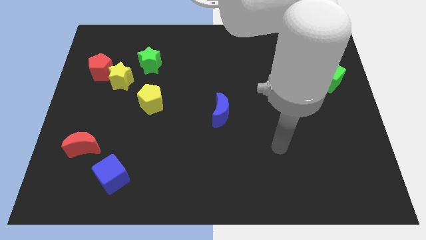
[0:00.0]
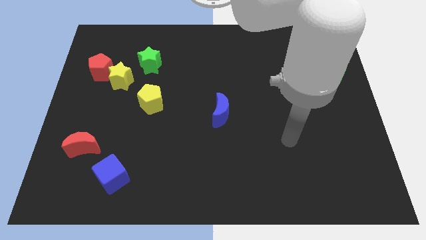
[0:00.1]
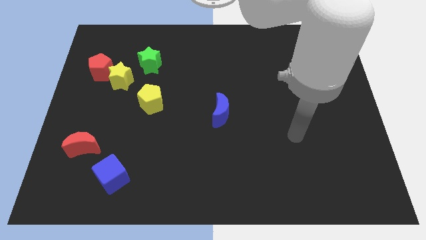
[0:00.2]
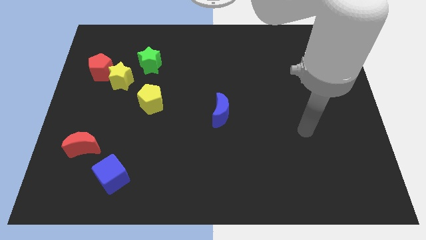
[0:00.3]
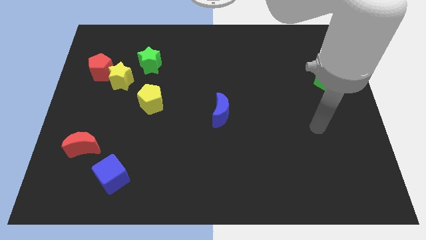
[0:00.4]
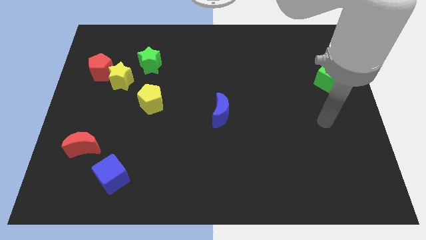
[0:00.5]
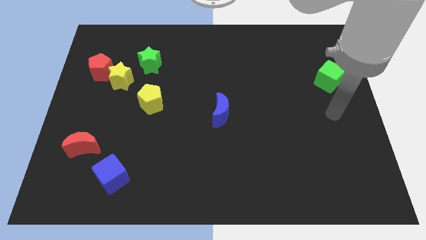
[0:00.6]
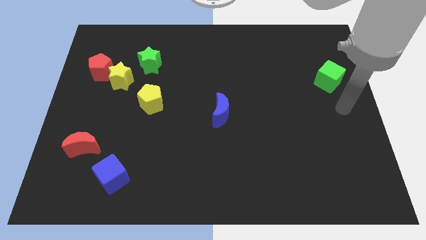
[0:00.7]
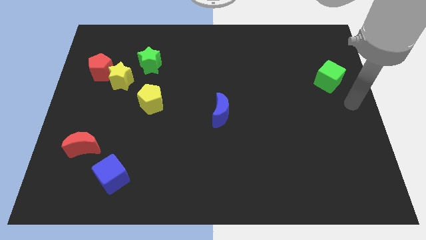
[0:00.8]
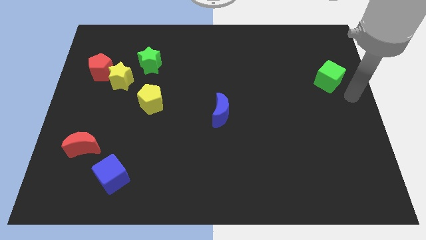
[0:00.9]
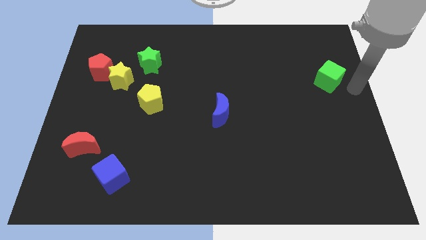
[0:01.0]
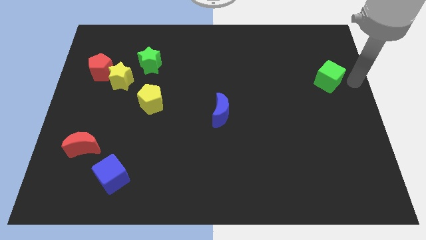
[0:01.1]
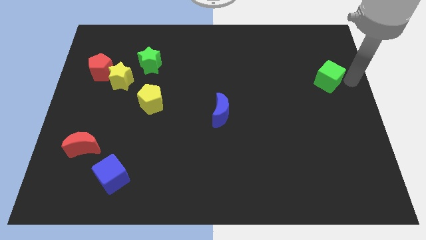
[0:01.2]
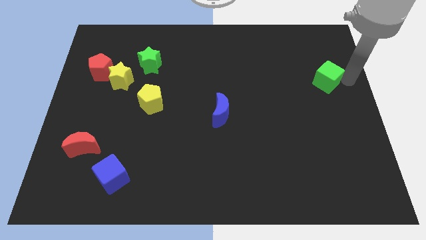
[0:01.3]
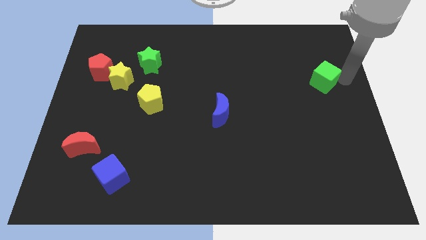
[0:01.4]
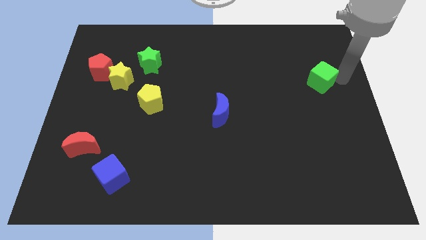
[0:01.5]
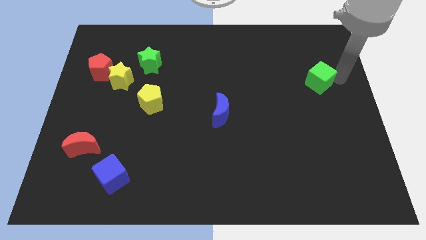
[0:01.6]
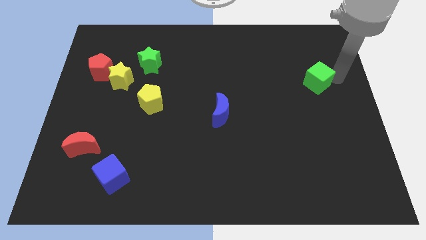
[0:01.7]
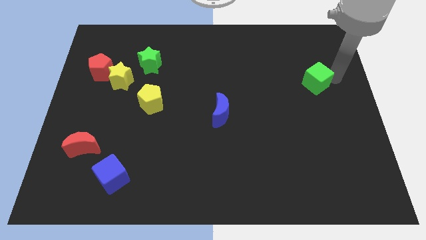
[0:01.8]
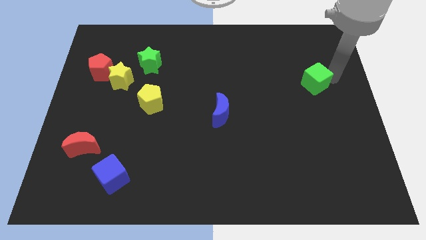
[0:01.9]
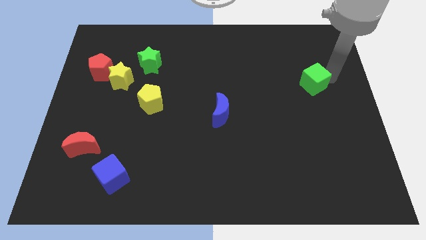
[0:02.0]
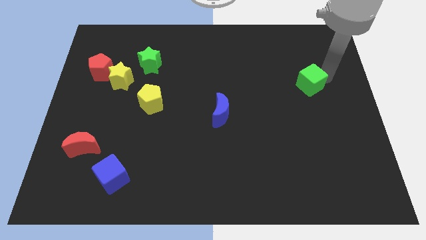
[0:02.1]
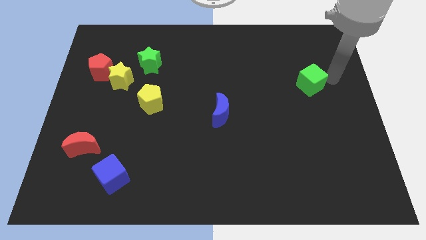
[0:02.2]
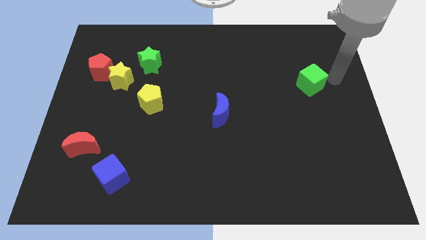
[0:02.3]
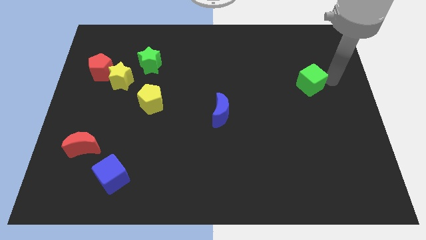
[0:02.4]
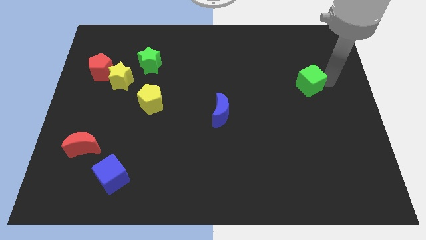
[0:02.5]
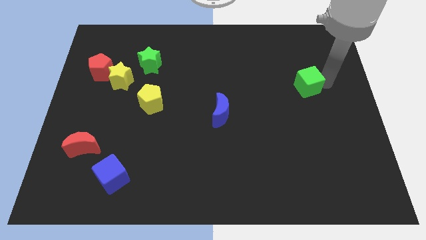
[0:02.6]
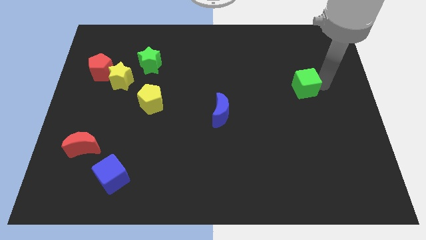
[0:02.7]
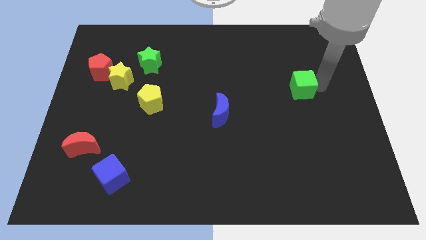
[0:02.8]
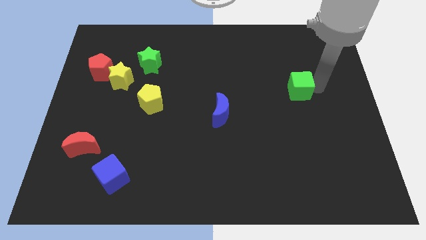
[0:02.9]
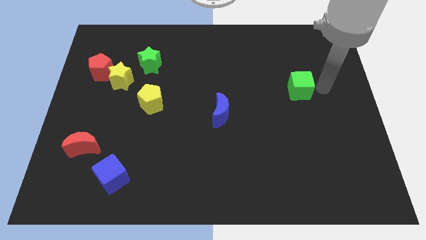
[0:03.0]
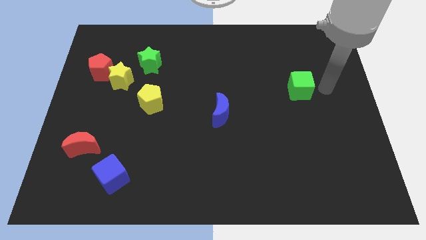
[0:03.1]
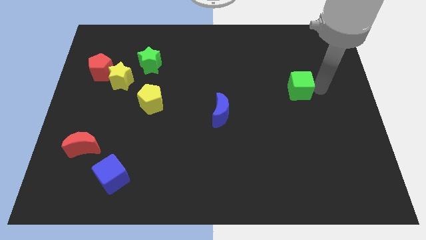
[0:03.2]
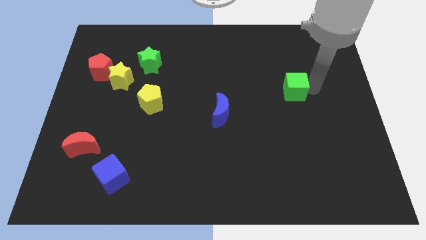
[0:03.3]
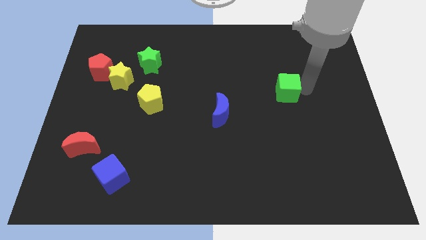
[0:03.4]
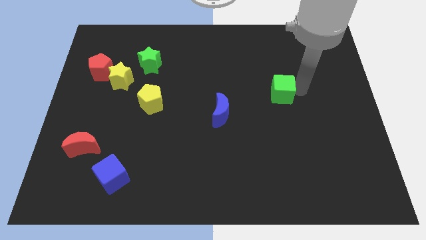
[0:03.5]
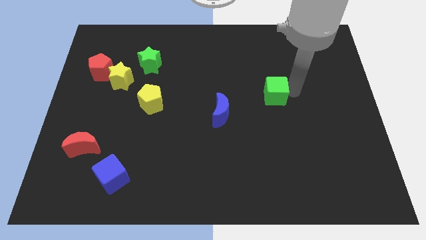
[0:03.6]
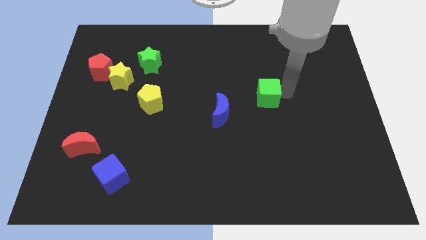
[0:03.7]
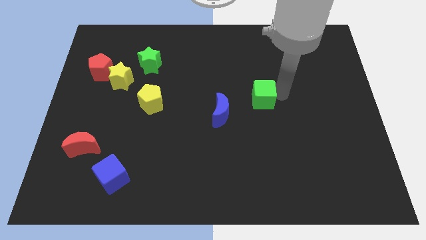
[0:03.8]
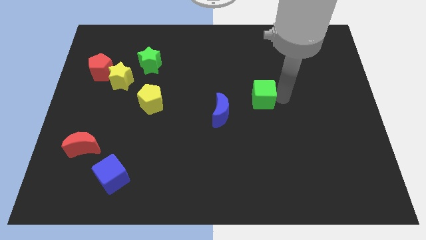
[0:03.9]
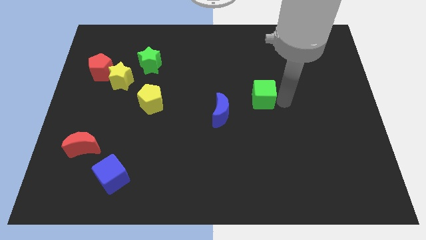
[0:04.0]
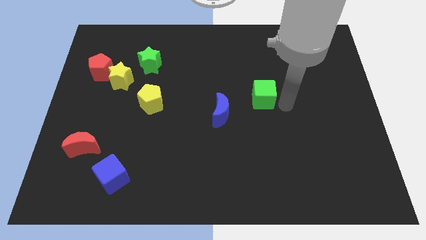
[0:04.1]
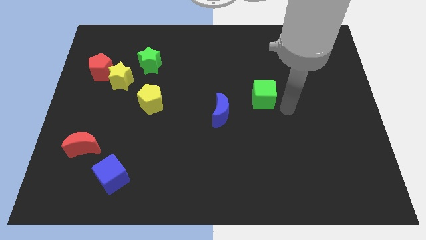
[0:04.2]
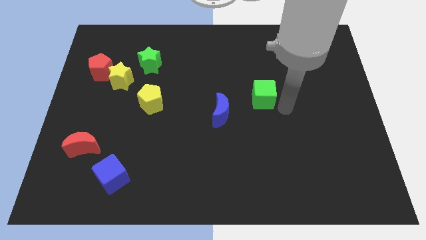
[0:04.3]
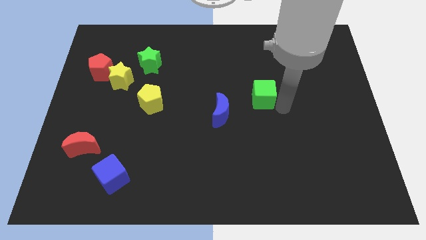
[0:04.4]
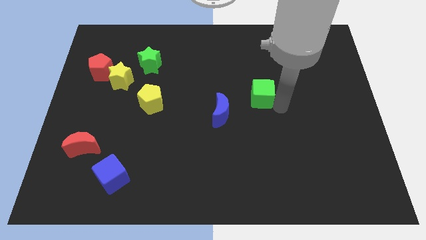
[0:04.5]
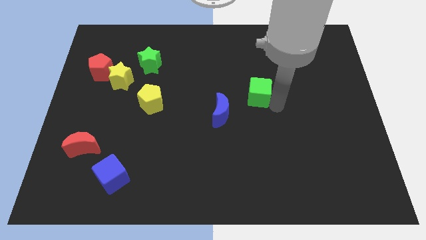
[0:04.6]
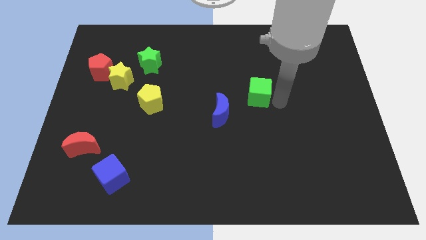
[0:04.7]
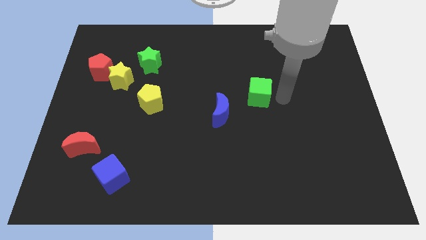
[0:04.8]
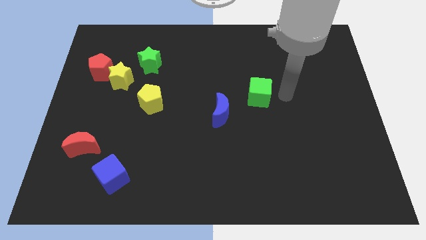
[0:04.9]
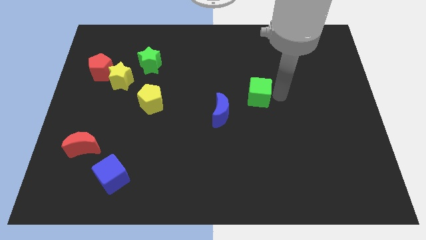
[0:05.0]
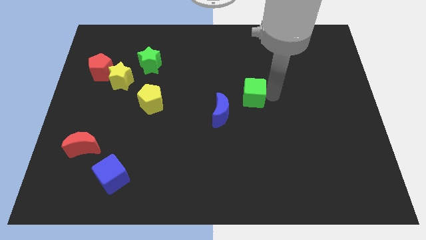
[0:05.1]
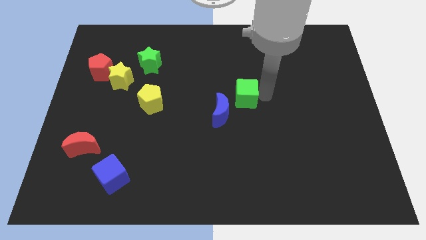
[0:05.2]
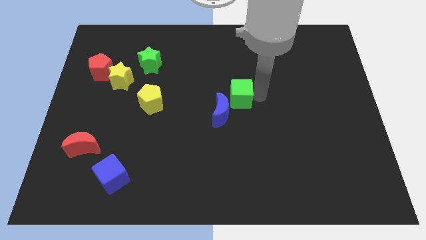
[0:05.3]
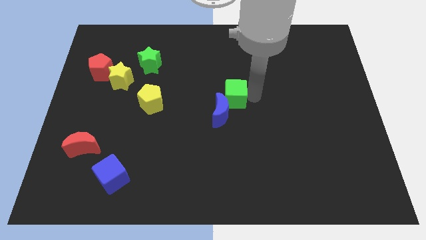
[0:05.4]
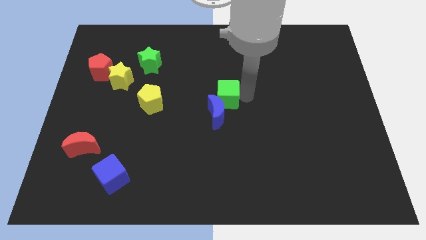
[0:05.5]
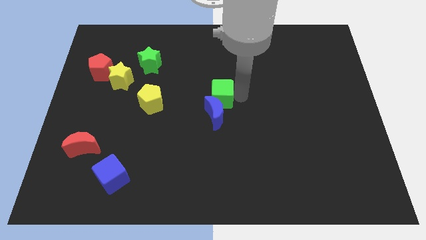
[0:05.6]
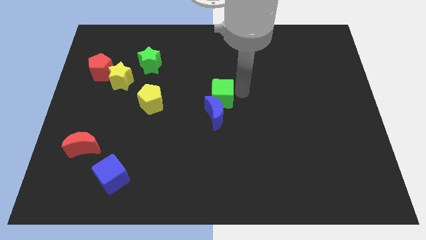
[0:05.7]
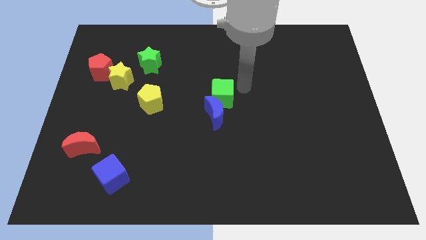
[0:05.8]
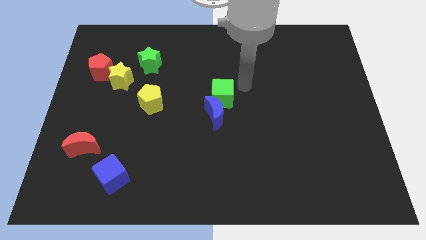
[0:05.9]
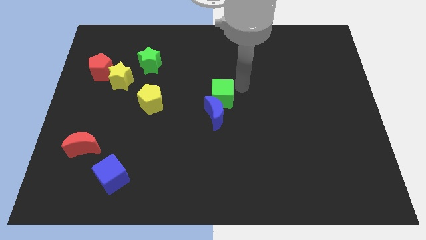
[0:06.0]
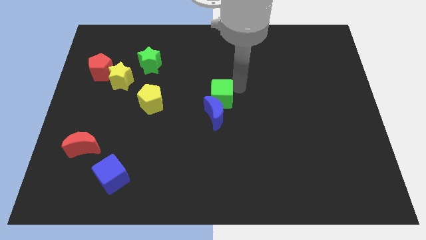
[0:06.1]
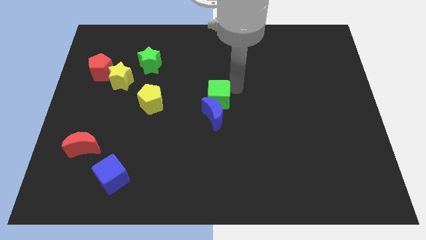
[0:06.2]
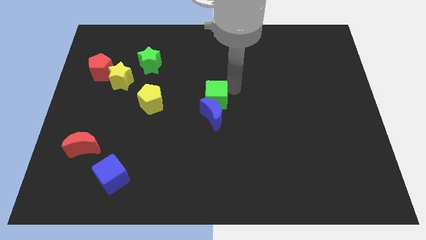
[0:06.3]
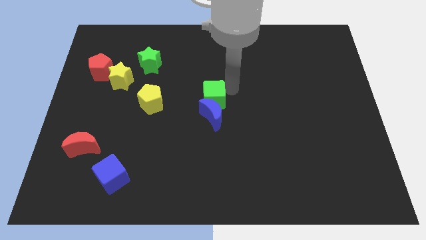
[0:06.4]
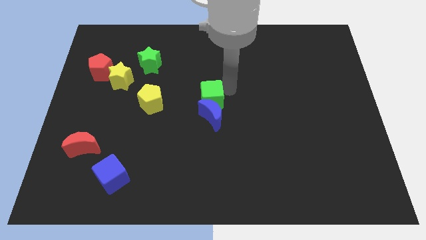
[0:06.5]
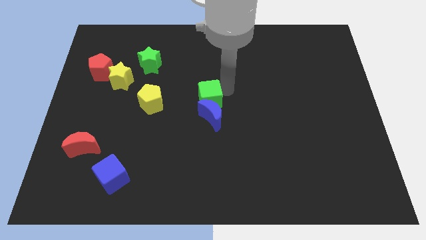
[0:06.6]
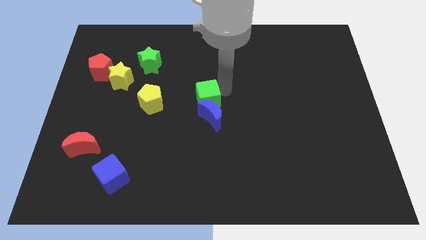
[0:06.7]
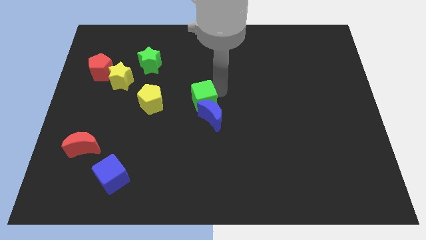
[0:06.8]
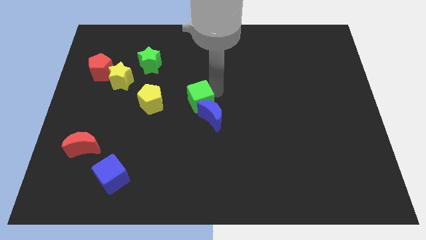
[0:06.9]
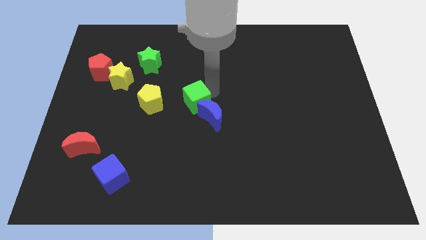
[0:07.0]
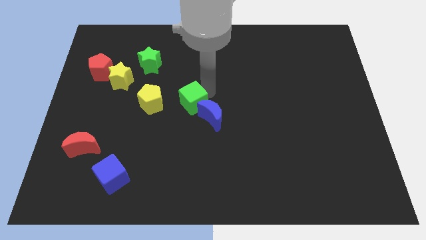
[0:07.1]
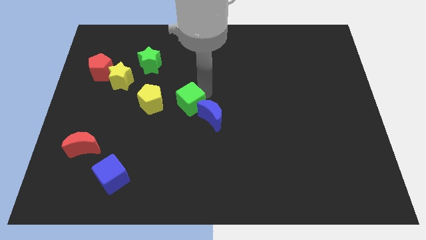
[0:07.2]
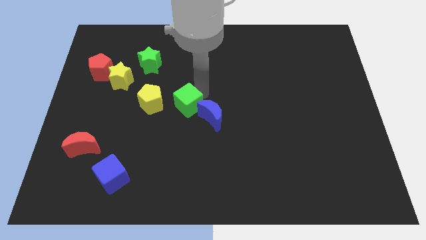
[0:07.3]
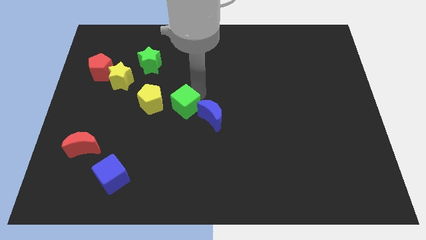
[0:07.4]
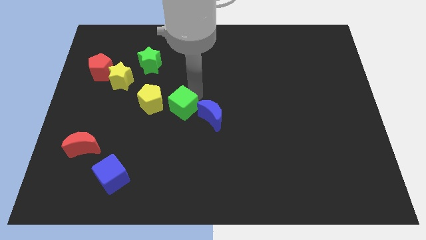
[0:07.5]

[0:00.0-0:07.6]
push the green cube to the bottom right of the yellow pentagon
